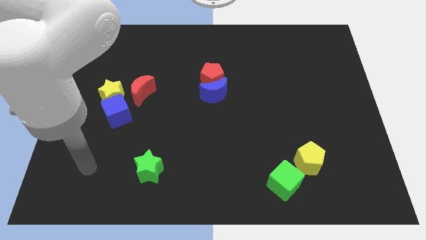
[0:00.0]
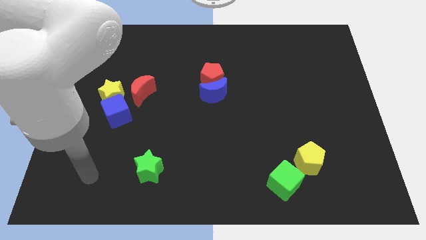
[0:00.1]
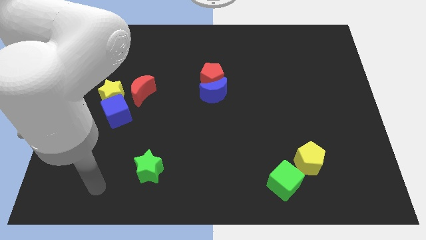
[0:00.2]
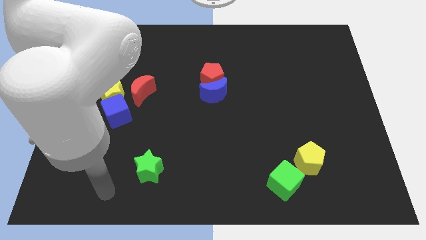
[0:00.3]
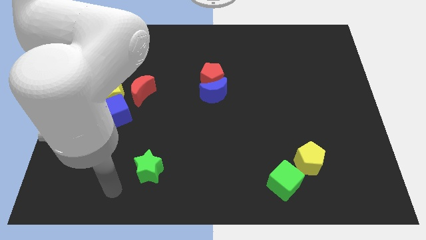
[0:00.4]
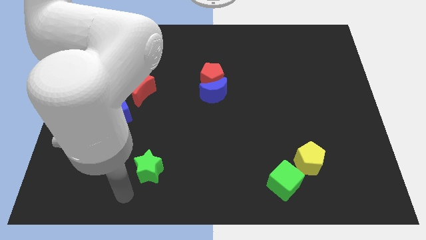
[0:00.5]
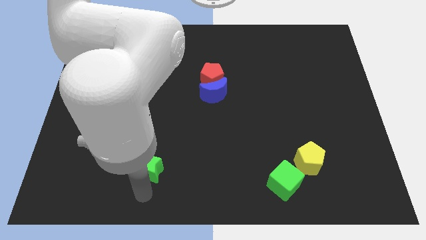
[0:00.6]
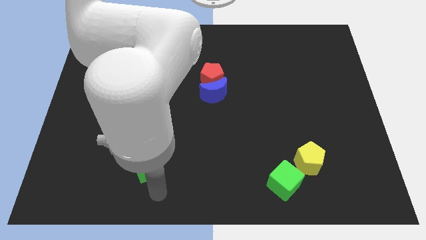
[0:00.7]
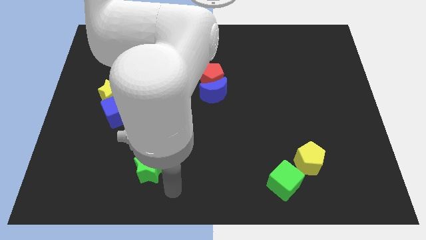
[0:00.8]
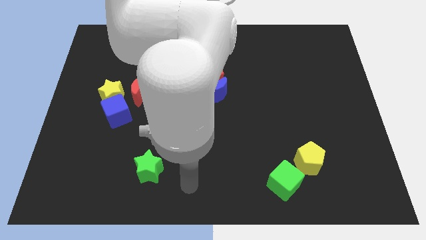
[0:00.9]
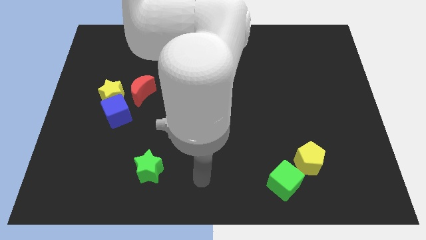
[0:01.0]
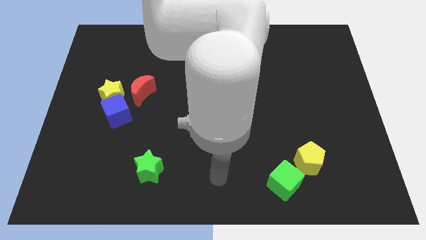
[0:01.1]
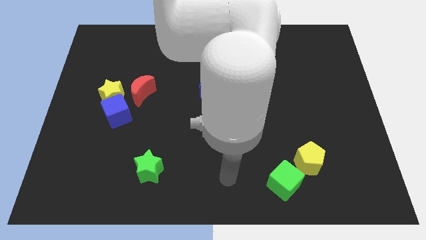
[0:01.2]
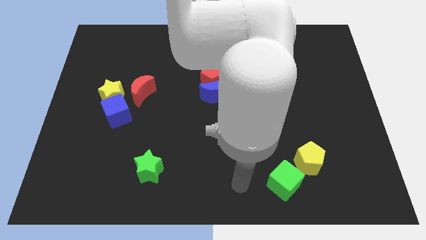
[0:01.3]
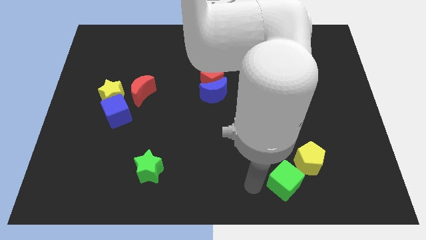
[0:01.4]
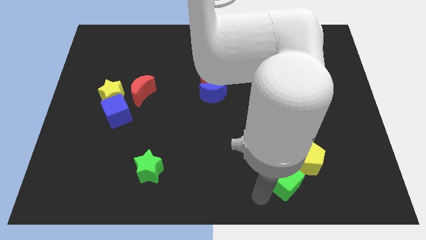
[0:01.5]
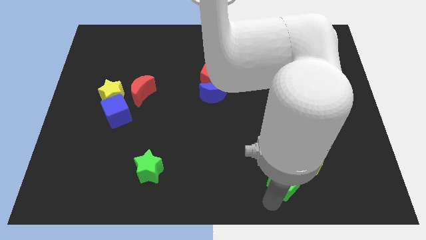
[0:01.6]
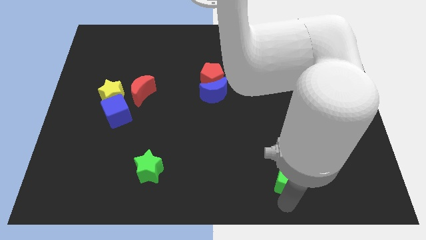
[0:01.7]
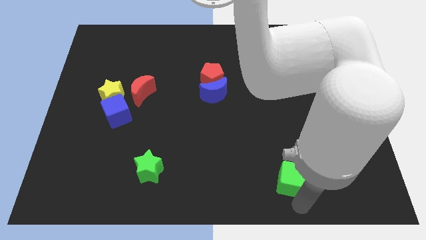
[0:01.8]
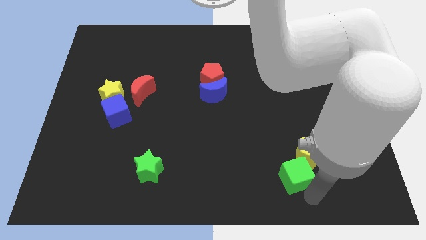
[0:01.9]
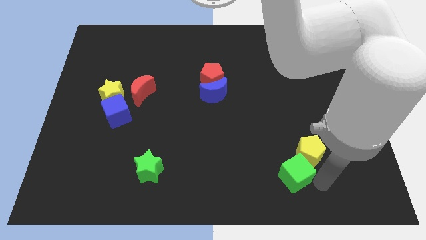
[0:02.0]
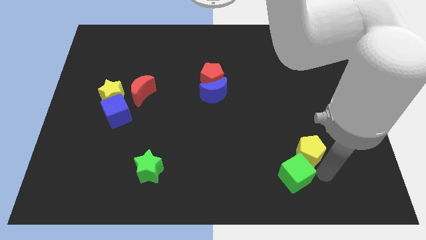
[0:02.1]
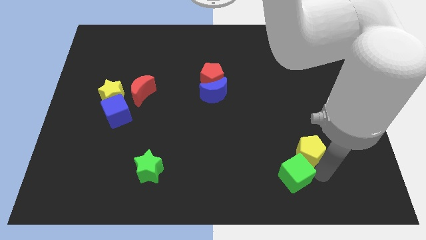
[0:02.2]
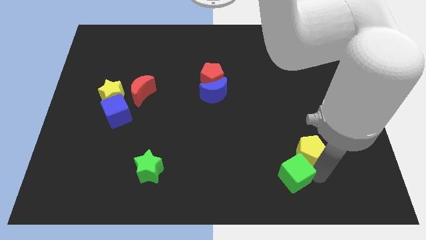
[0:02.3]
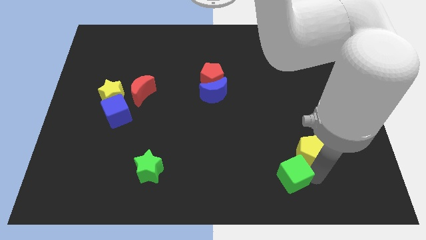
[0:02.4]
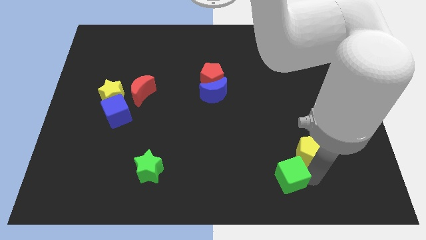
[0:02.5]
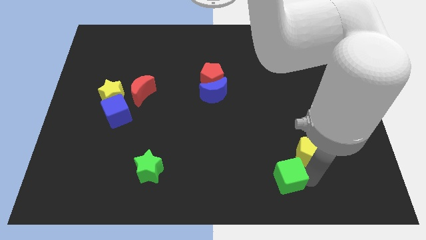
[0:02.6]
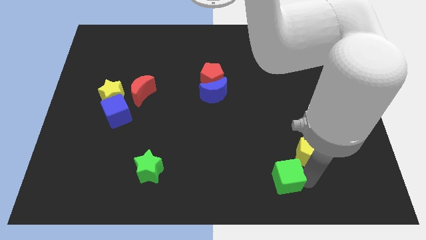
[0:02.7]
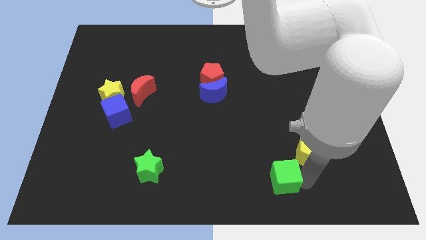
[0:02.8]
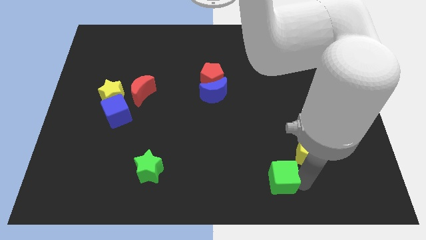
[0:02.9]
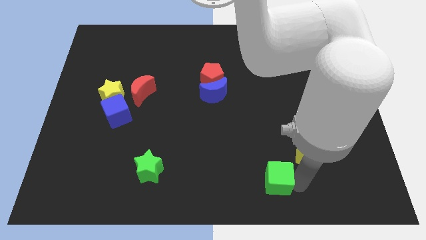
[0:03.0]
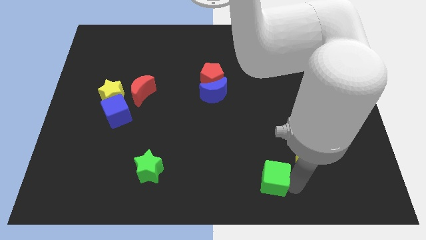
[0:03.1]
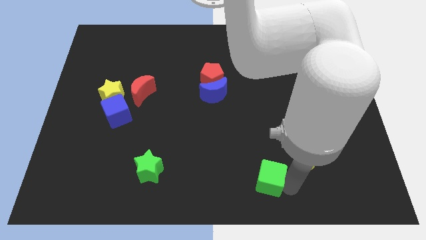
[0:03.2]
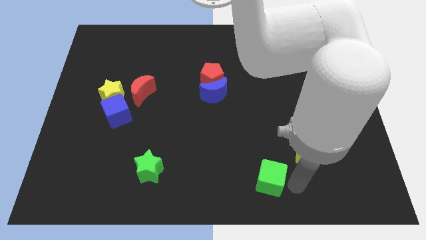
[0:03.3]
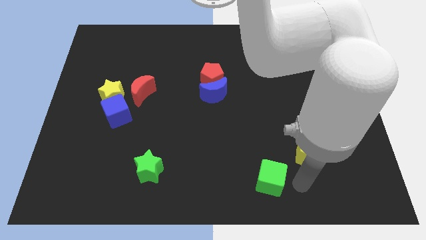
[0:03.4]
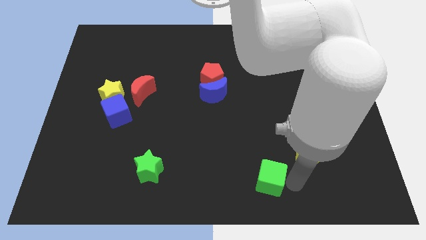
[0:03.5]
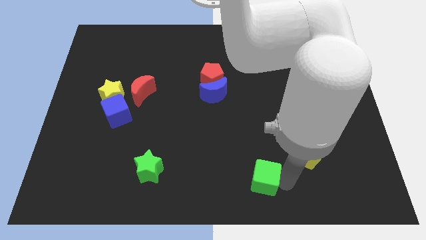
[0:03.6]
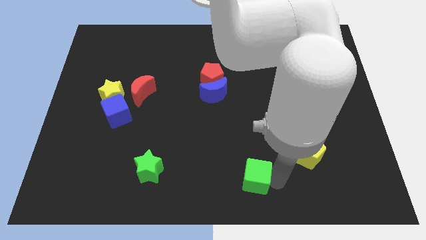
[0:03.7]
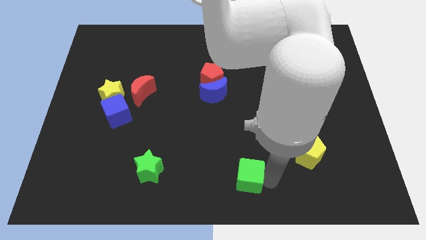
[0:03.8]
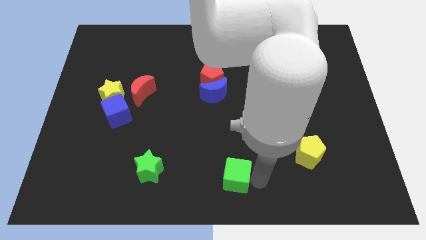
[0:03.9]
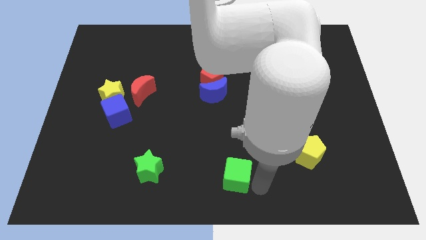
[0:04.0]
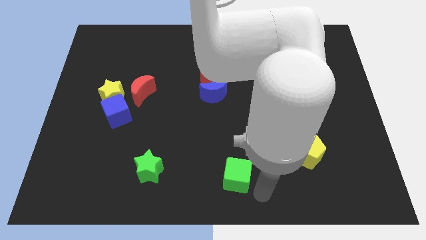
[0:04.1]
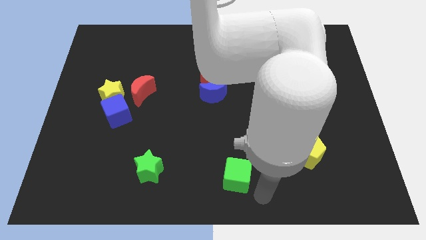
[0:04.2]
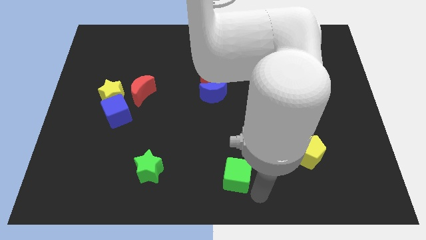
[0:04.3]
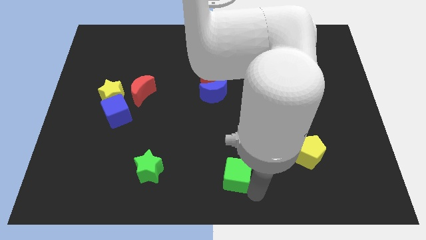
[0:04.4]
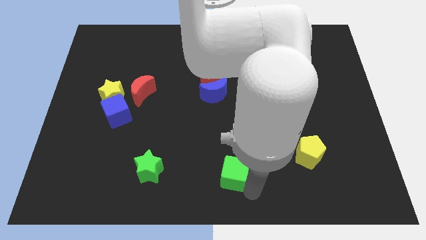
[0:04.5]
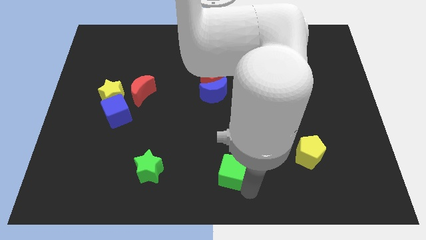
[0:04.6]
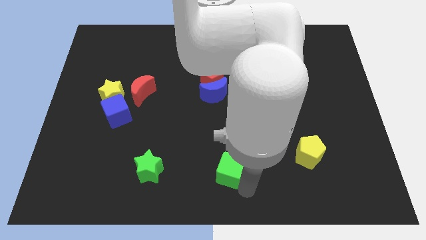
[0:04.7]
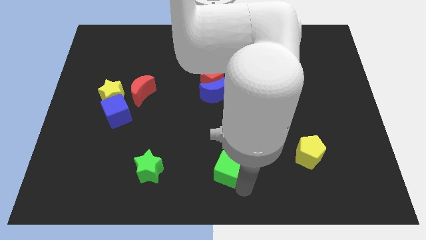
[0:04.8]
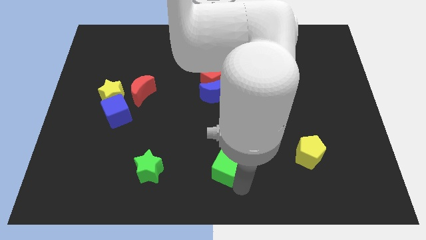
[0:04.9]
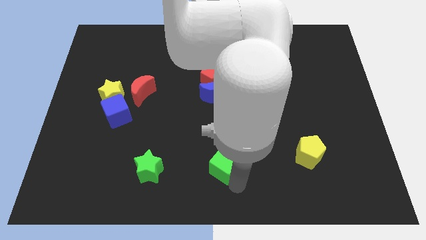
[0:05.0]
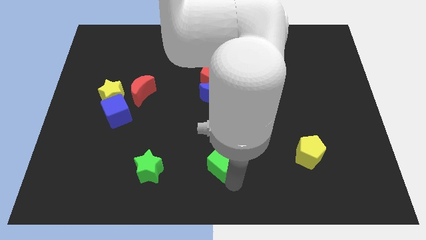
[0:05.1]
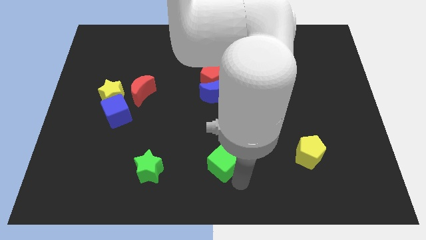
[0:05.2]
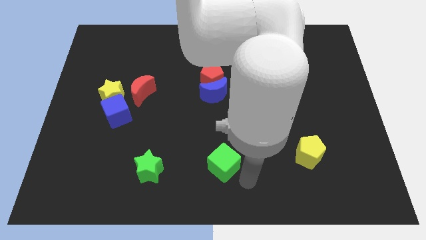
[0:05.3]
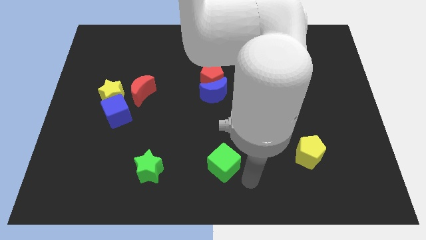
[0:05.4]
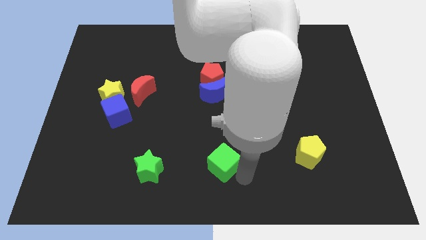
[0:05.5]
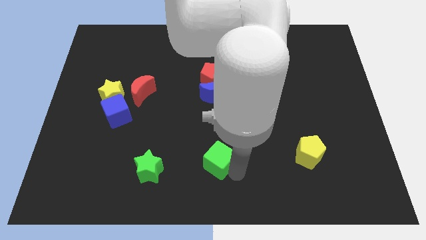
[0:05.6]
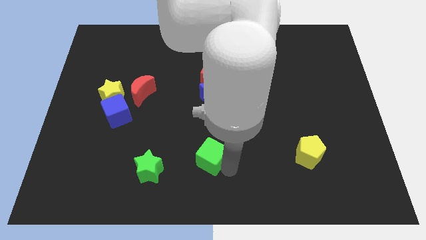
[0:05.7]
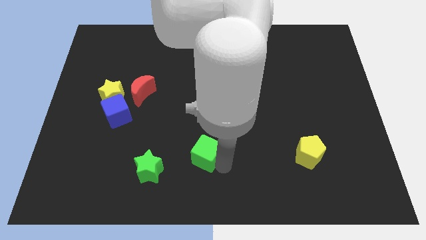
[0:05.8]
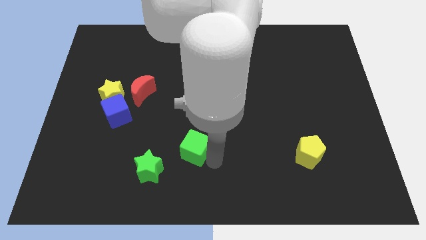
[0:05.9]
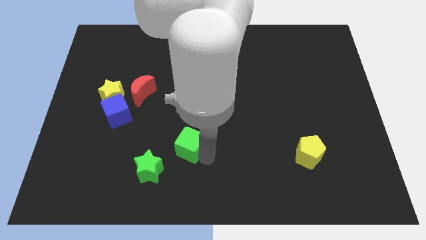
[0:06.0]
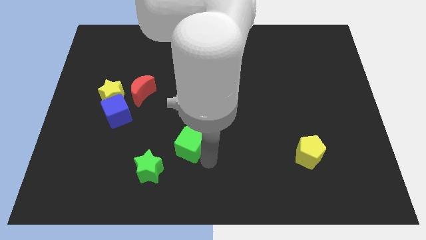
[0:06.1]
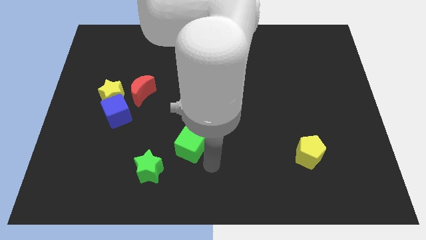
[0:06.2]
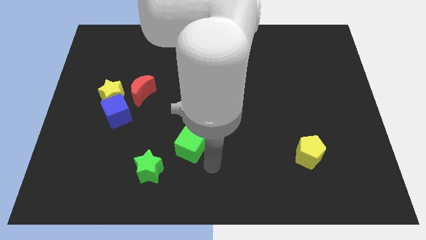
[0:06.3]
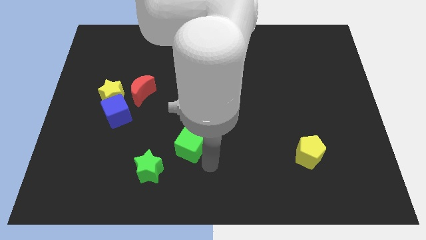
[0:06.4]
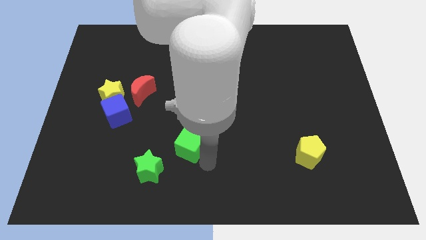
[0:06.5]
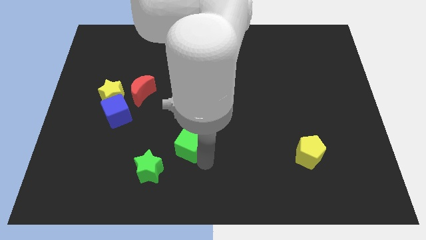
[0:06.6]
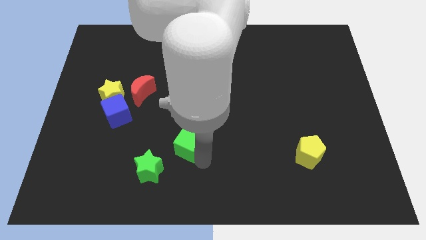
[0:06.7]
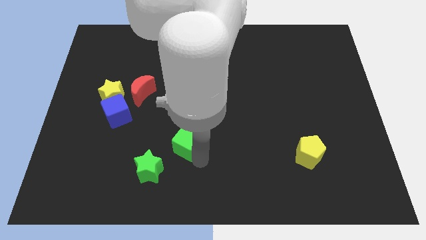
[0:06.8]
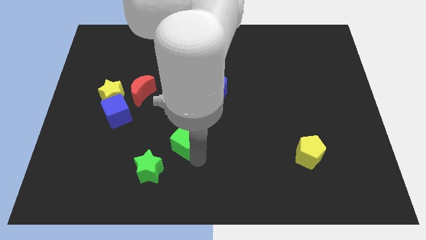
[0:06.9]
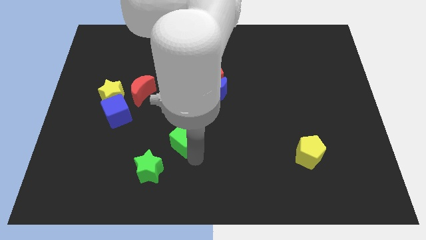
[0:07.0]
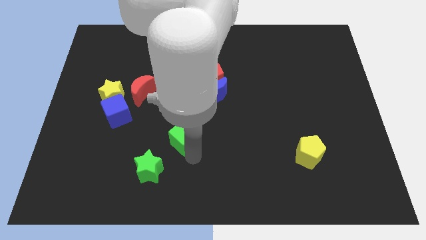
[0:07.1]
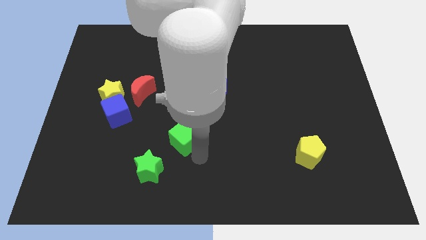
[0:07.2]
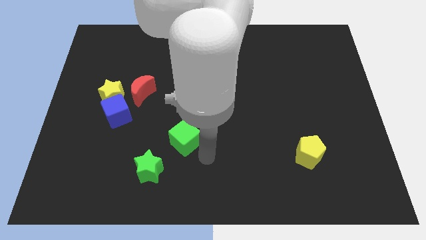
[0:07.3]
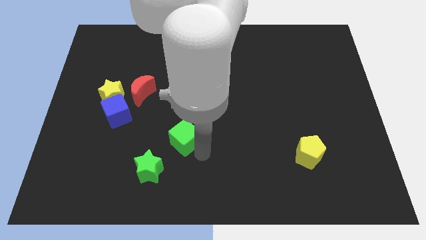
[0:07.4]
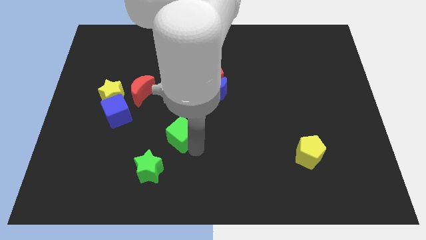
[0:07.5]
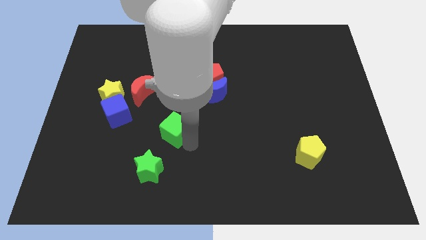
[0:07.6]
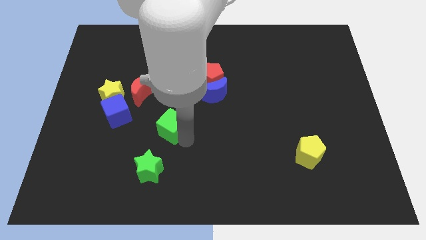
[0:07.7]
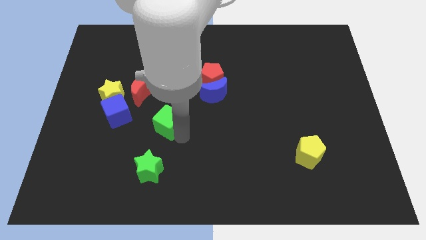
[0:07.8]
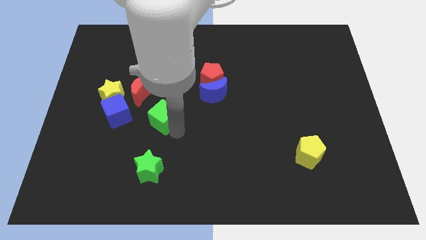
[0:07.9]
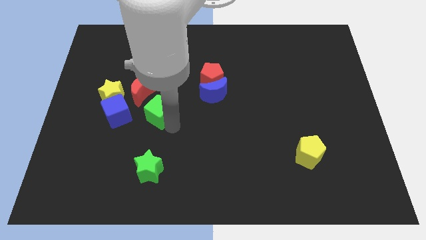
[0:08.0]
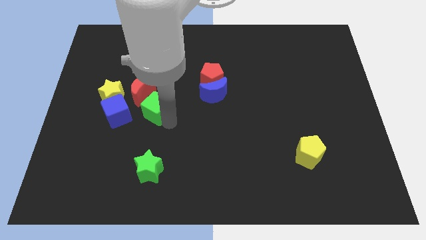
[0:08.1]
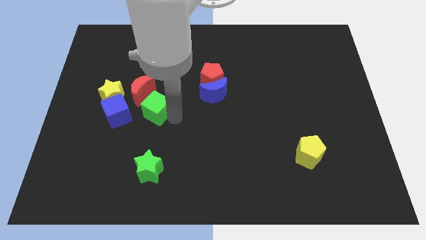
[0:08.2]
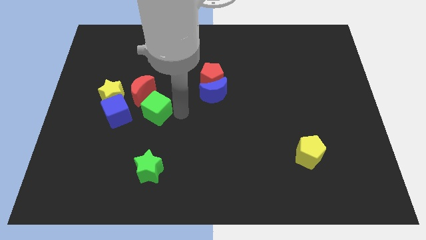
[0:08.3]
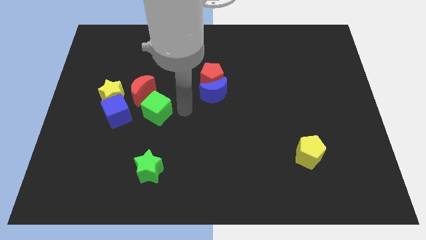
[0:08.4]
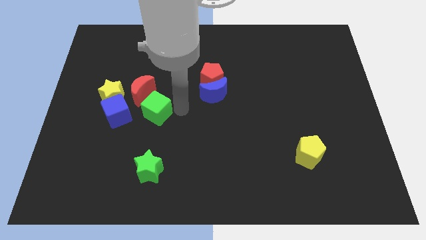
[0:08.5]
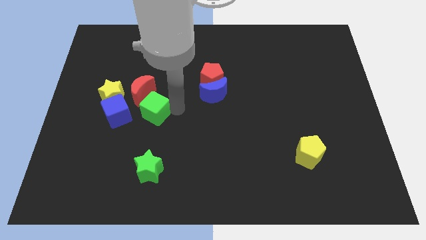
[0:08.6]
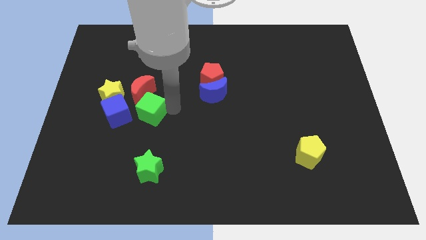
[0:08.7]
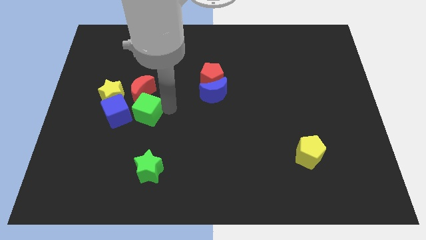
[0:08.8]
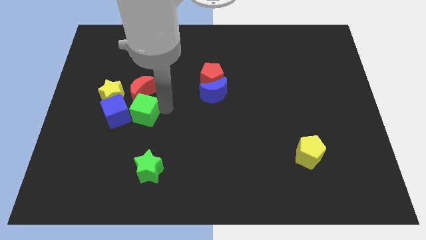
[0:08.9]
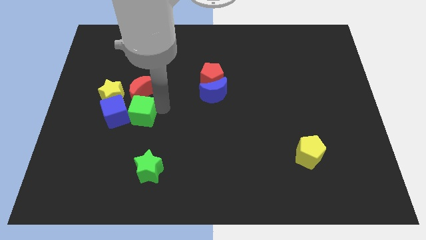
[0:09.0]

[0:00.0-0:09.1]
push the green cube to the blue cube
